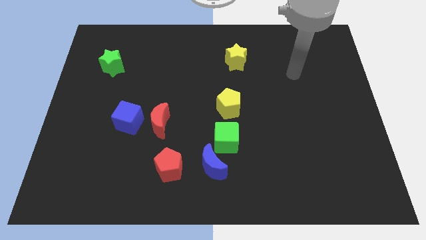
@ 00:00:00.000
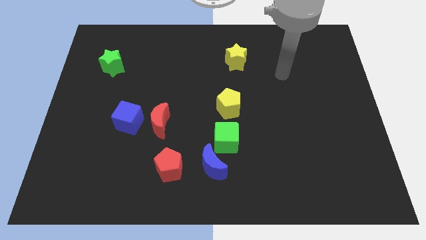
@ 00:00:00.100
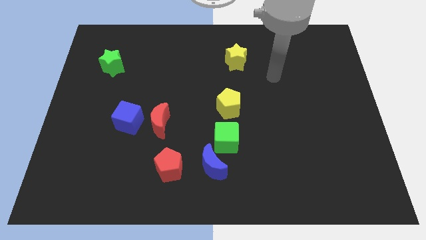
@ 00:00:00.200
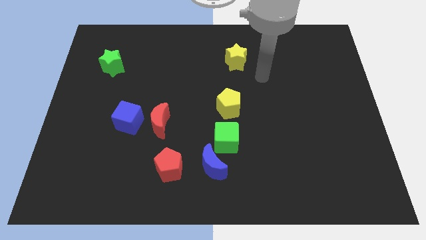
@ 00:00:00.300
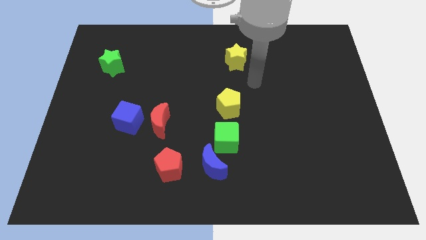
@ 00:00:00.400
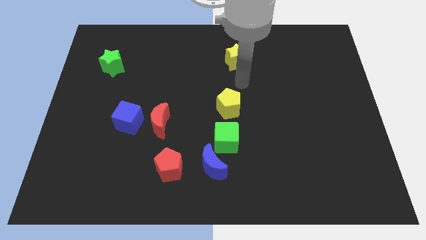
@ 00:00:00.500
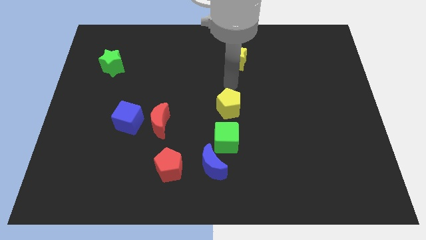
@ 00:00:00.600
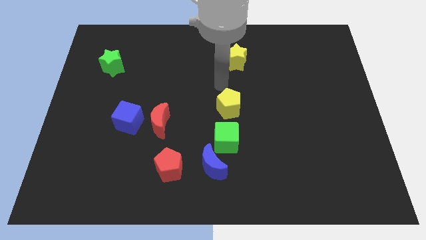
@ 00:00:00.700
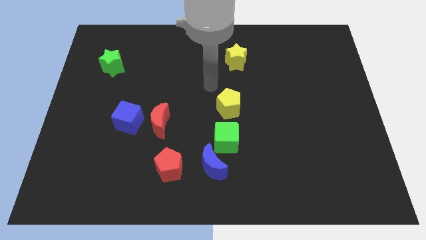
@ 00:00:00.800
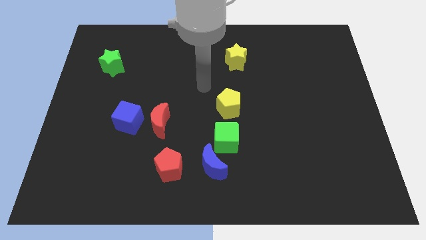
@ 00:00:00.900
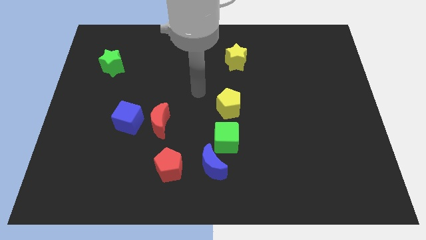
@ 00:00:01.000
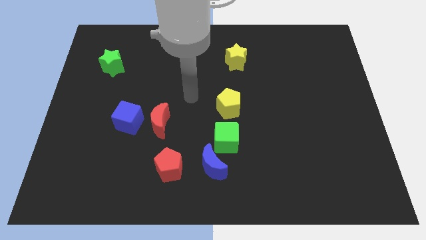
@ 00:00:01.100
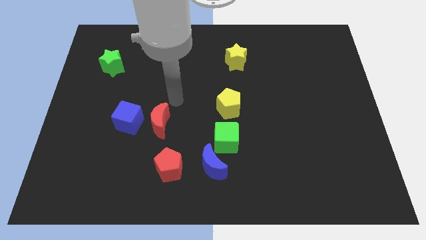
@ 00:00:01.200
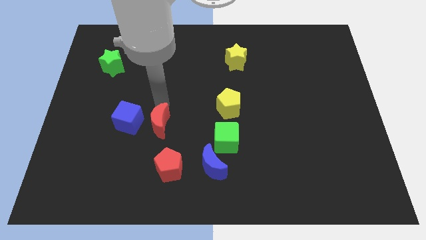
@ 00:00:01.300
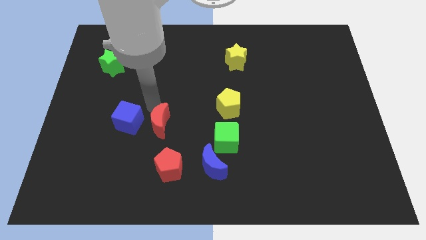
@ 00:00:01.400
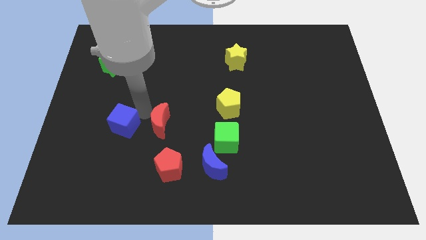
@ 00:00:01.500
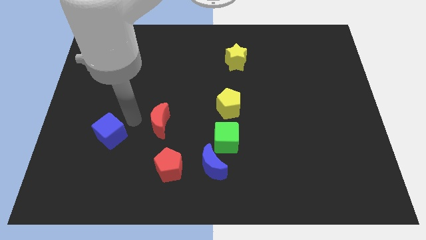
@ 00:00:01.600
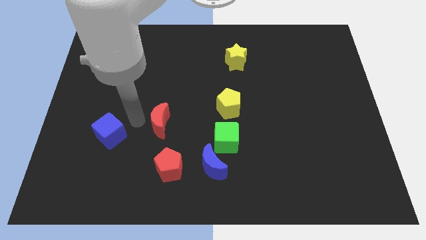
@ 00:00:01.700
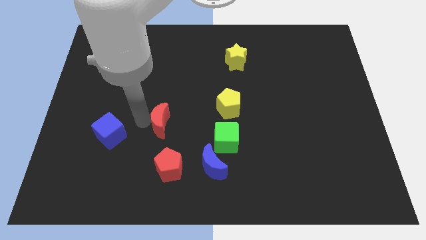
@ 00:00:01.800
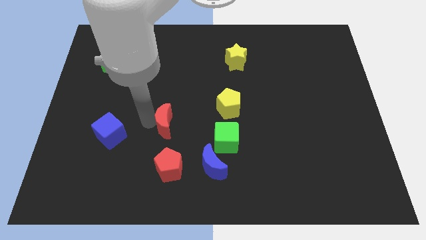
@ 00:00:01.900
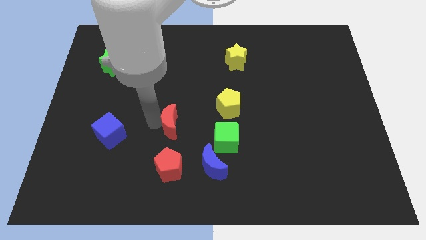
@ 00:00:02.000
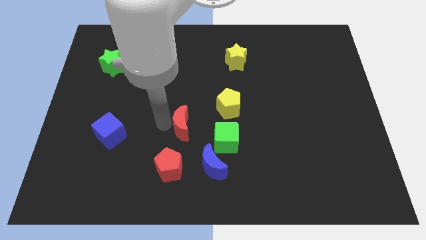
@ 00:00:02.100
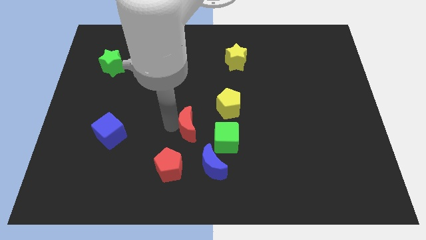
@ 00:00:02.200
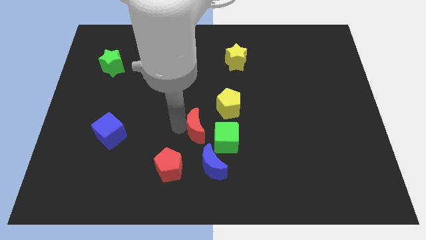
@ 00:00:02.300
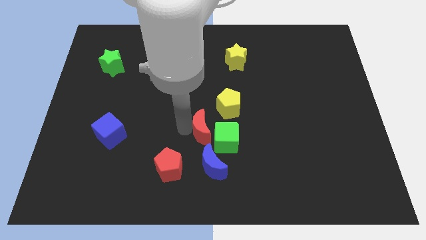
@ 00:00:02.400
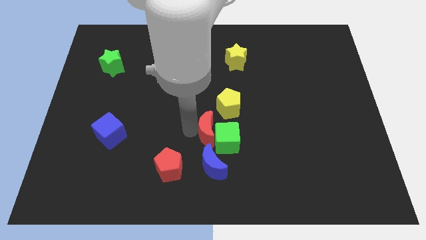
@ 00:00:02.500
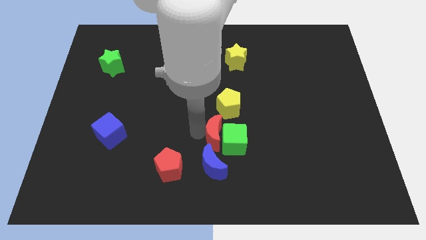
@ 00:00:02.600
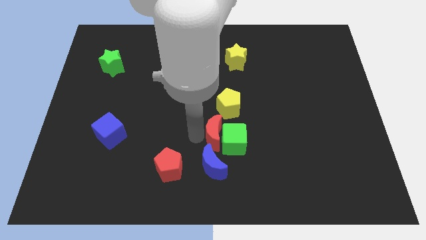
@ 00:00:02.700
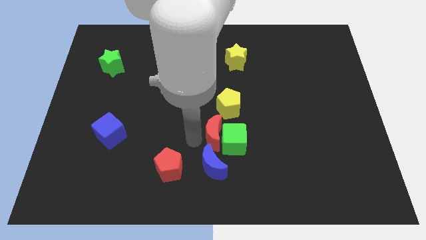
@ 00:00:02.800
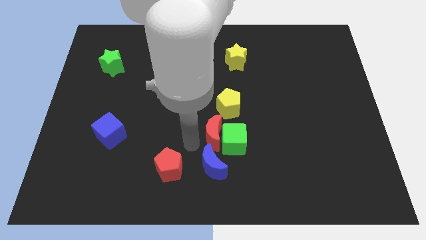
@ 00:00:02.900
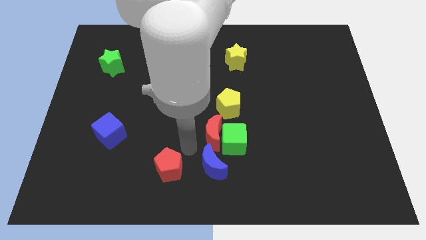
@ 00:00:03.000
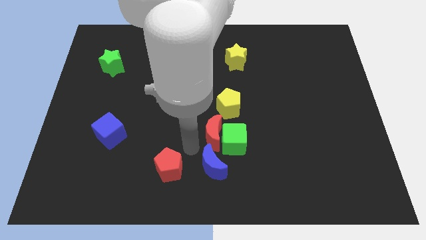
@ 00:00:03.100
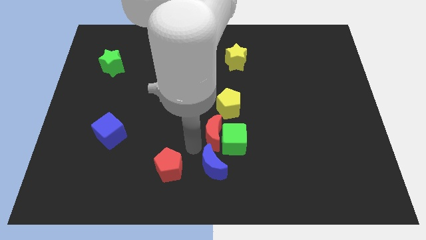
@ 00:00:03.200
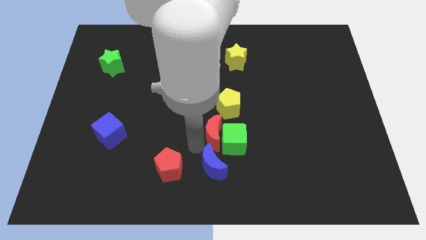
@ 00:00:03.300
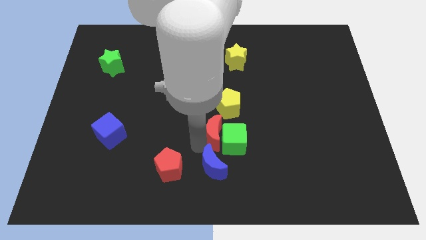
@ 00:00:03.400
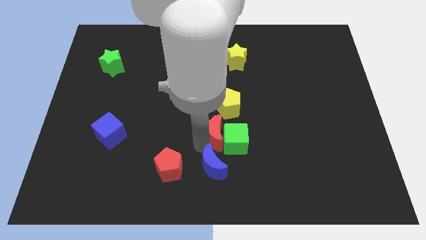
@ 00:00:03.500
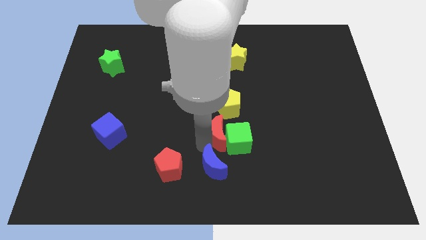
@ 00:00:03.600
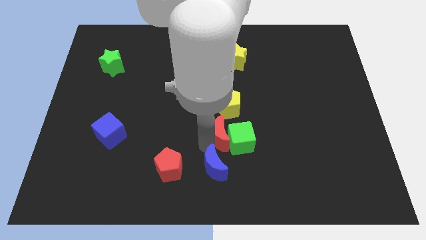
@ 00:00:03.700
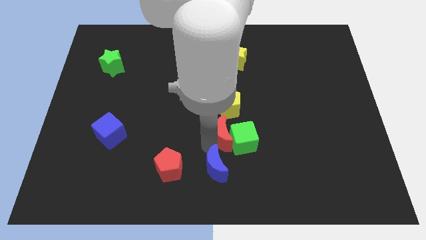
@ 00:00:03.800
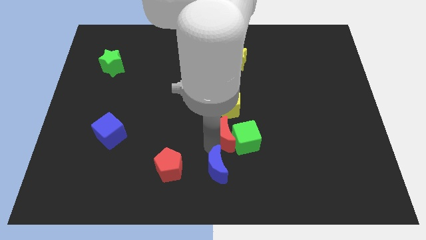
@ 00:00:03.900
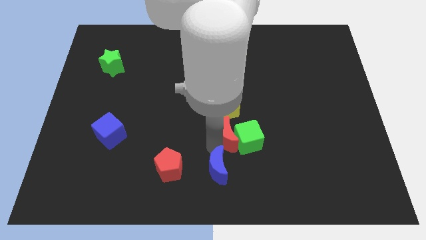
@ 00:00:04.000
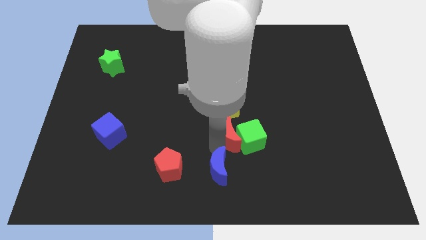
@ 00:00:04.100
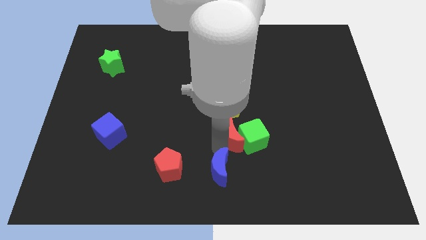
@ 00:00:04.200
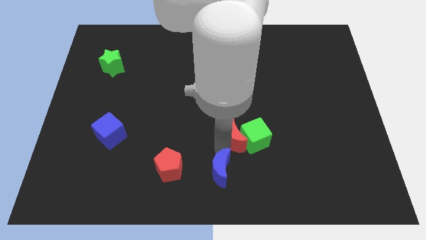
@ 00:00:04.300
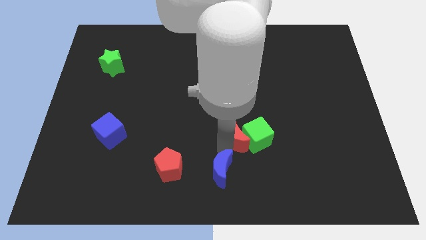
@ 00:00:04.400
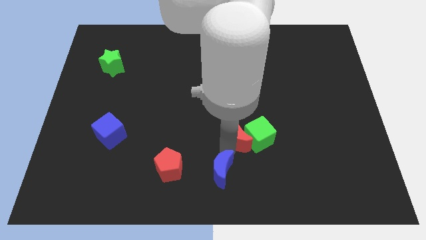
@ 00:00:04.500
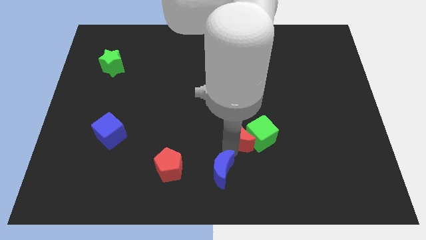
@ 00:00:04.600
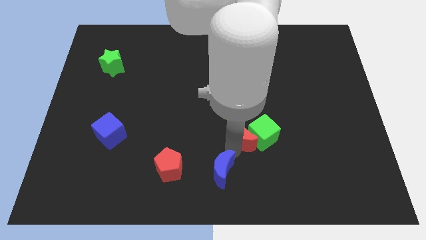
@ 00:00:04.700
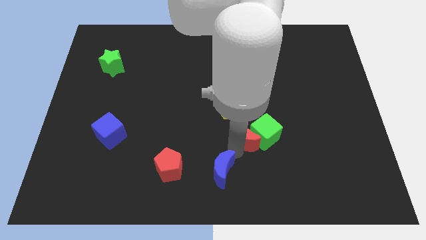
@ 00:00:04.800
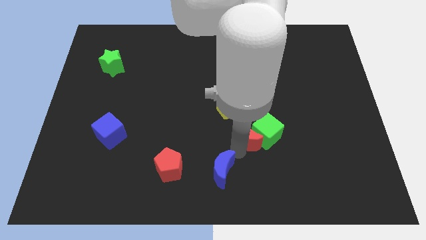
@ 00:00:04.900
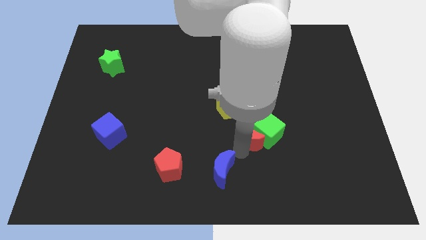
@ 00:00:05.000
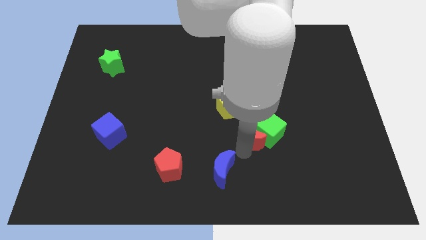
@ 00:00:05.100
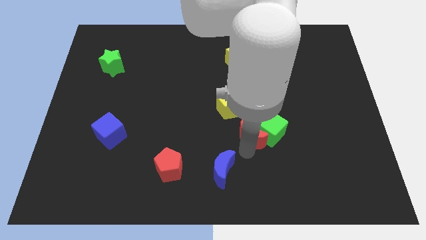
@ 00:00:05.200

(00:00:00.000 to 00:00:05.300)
move the red moon to the right

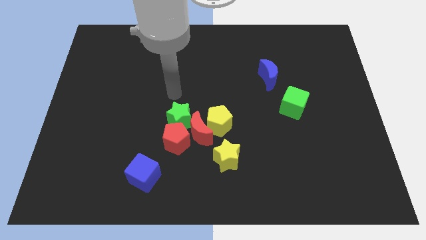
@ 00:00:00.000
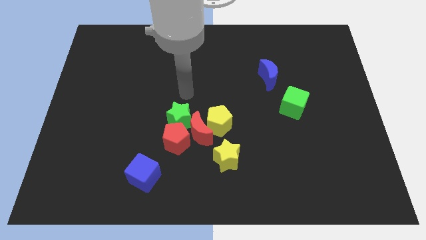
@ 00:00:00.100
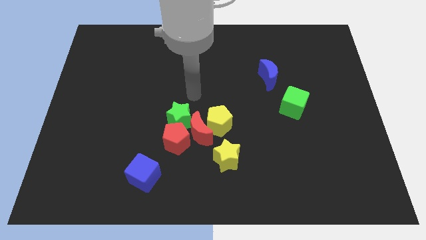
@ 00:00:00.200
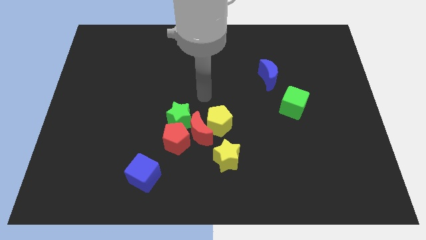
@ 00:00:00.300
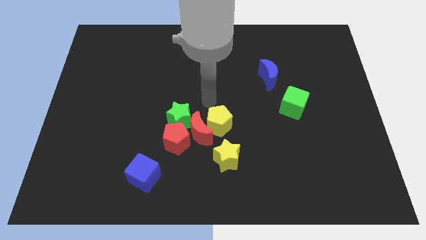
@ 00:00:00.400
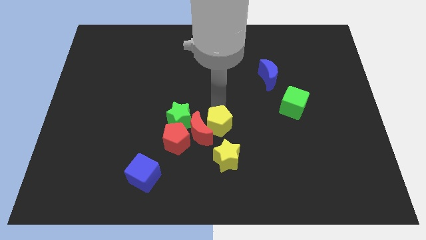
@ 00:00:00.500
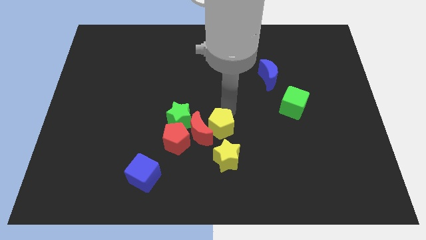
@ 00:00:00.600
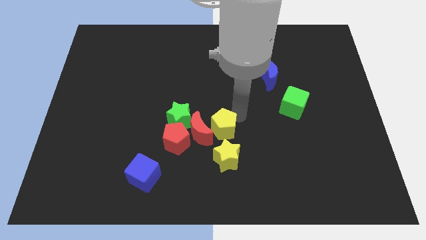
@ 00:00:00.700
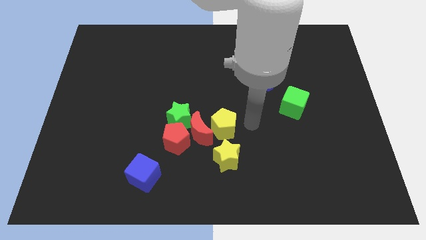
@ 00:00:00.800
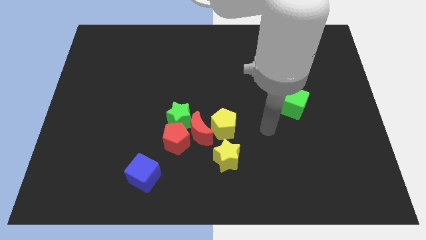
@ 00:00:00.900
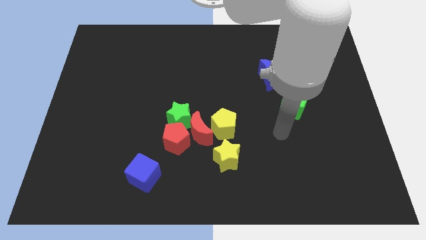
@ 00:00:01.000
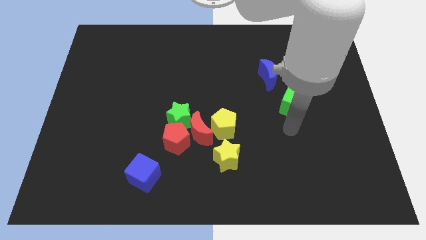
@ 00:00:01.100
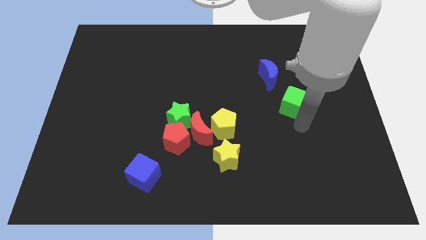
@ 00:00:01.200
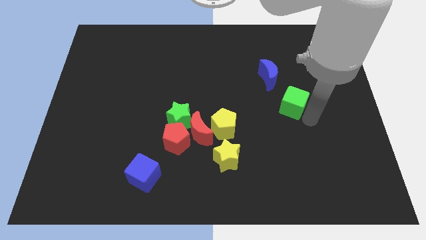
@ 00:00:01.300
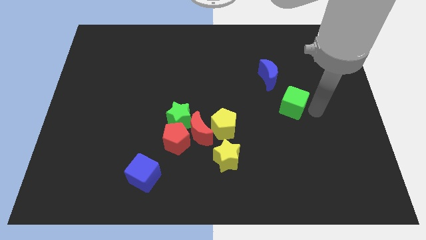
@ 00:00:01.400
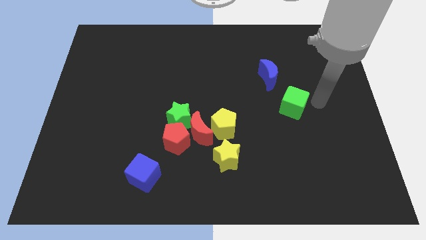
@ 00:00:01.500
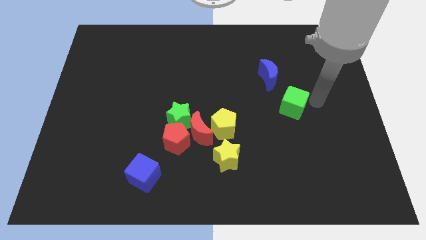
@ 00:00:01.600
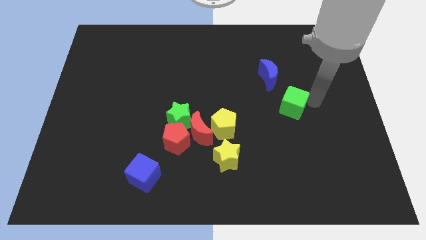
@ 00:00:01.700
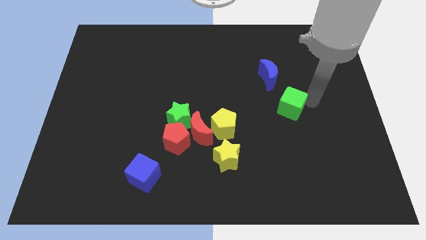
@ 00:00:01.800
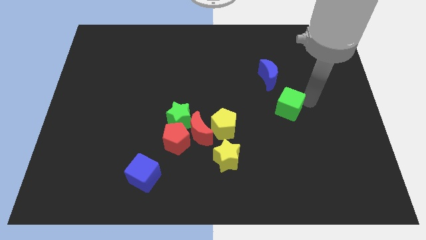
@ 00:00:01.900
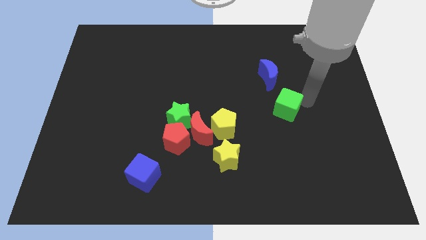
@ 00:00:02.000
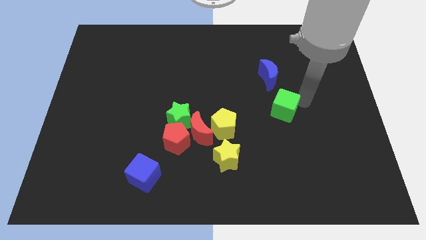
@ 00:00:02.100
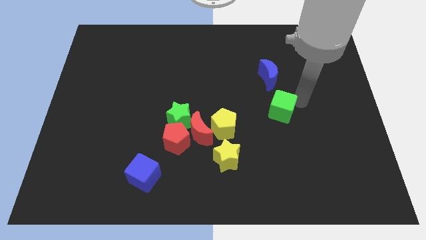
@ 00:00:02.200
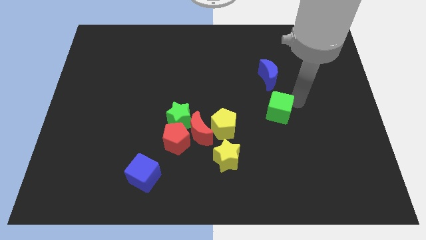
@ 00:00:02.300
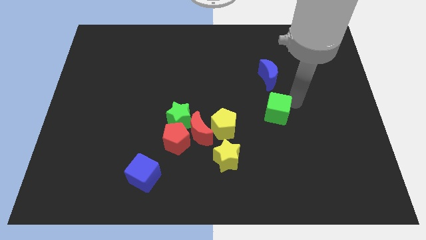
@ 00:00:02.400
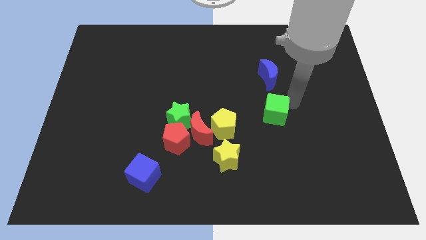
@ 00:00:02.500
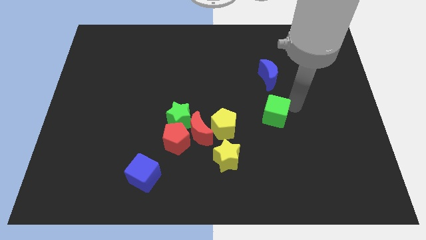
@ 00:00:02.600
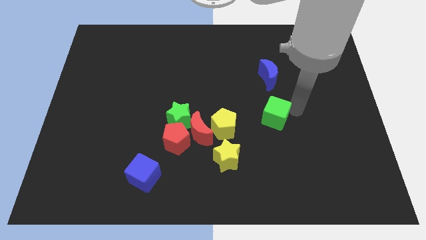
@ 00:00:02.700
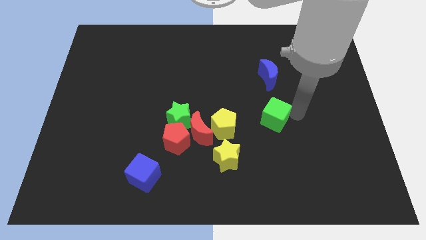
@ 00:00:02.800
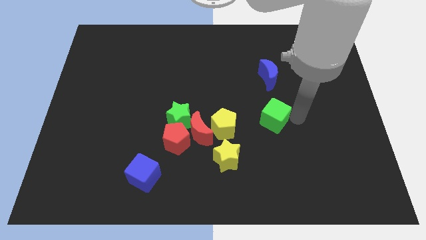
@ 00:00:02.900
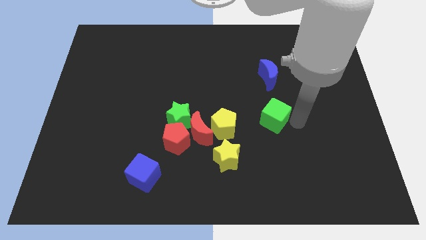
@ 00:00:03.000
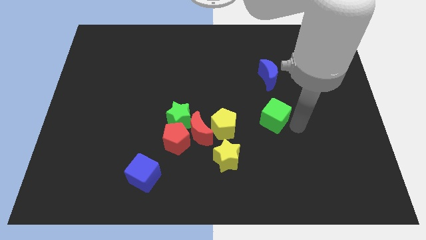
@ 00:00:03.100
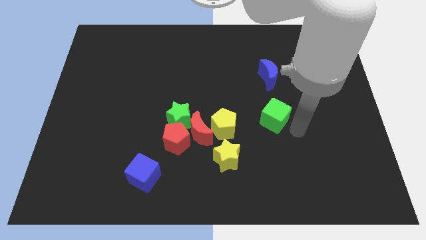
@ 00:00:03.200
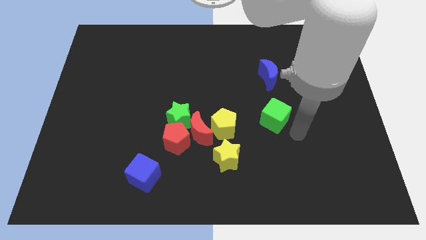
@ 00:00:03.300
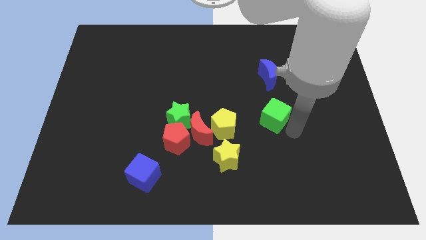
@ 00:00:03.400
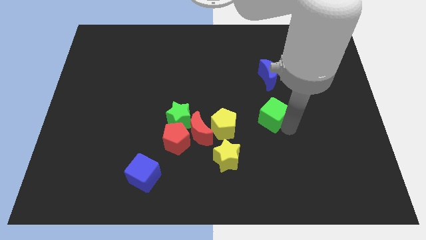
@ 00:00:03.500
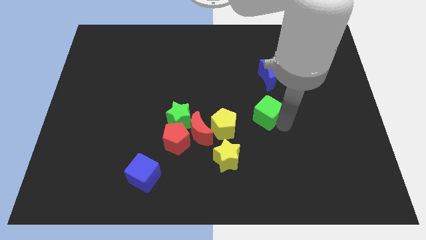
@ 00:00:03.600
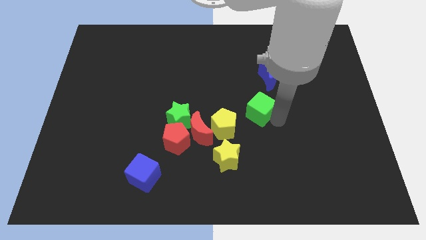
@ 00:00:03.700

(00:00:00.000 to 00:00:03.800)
move the green cube slightly to the left
